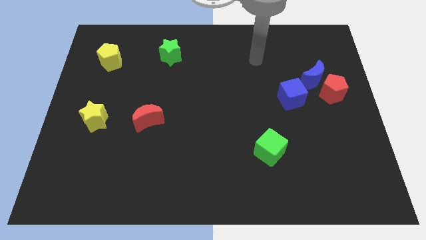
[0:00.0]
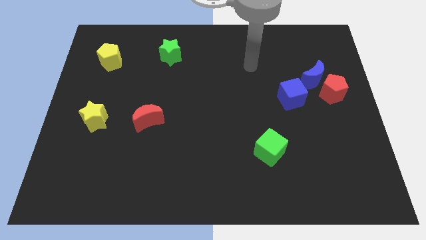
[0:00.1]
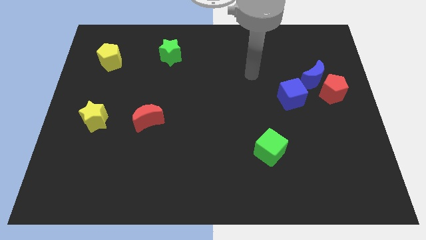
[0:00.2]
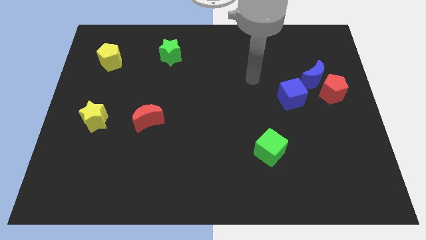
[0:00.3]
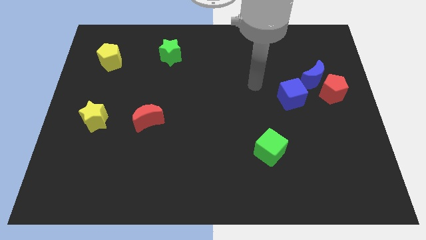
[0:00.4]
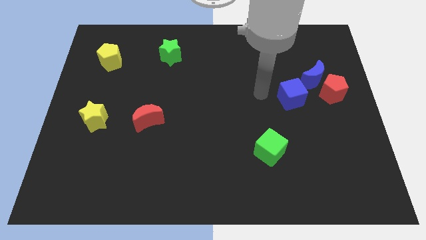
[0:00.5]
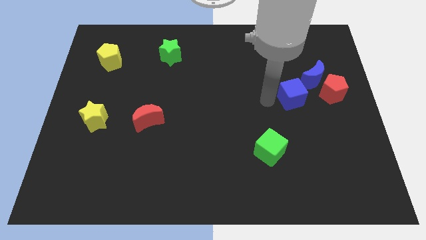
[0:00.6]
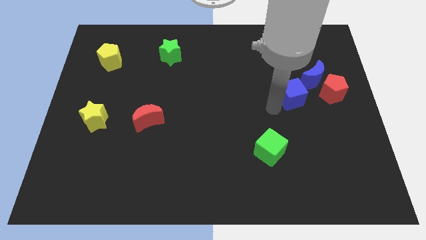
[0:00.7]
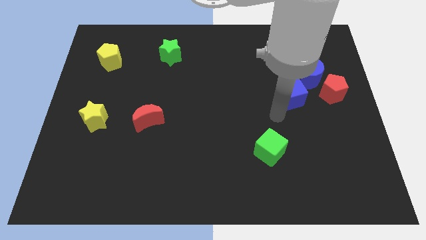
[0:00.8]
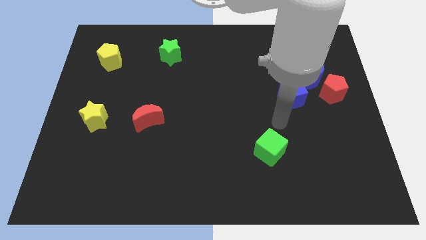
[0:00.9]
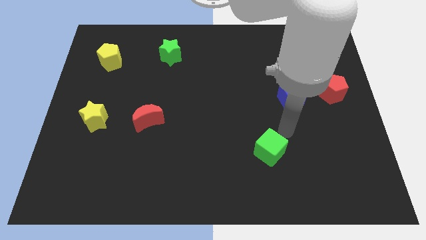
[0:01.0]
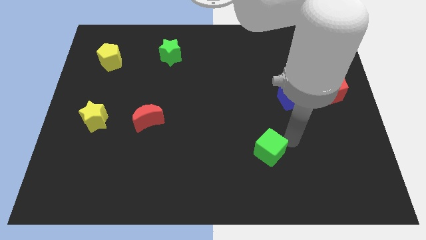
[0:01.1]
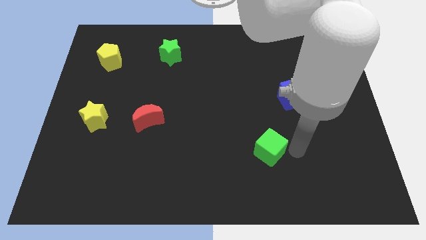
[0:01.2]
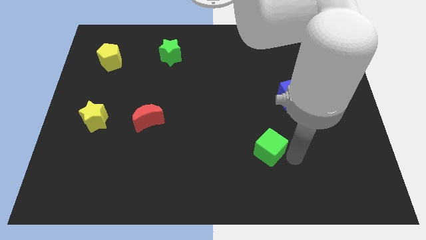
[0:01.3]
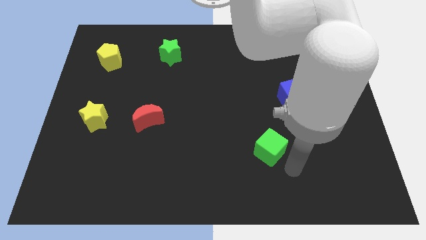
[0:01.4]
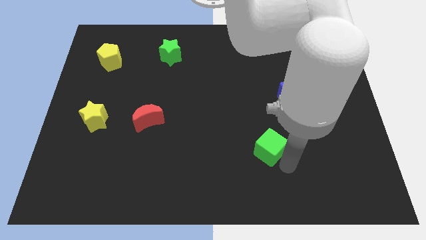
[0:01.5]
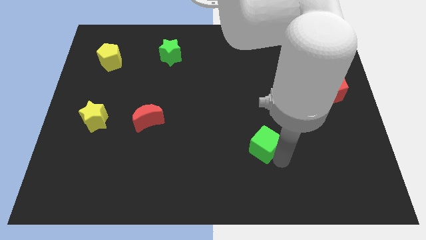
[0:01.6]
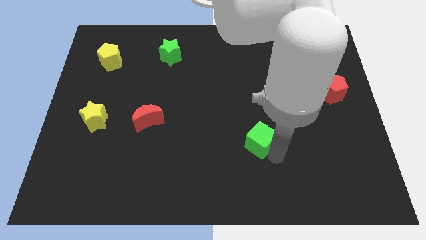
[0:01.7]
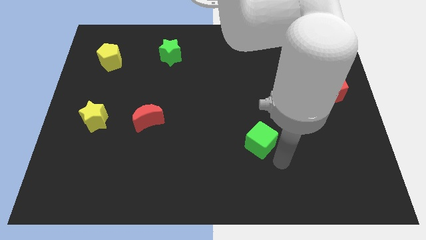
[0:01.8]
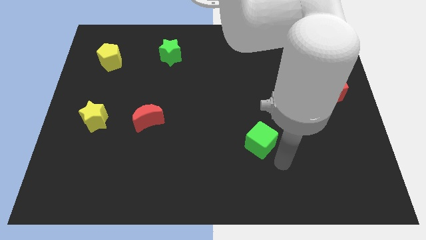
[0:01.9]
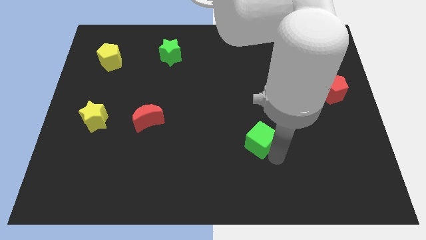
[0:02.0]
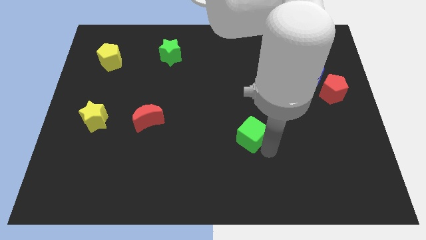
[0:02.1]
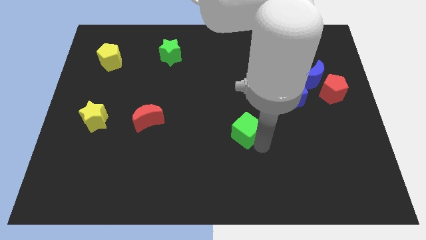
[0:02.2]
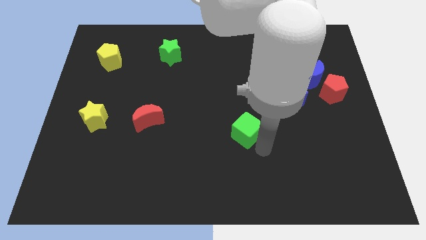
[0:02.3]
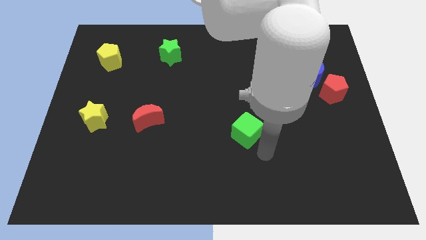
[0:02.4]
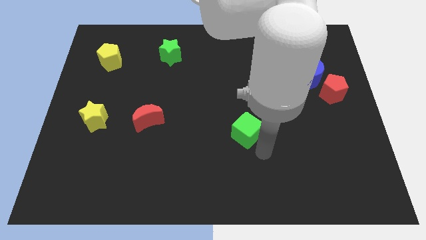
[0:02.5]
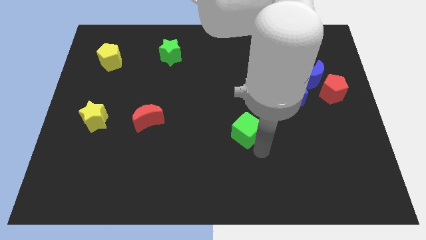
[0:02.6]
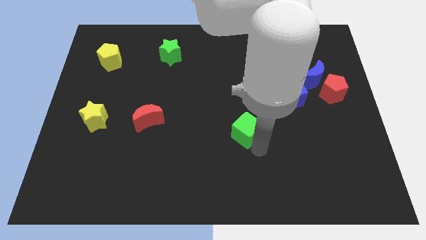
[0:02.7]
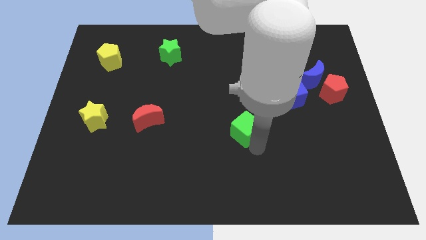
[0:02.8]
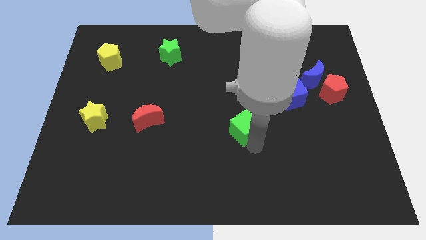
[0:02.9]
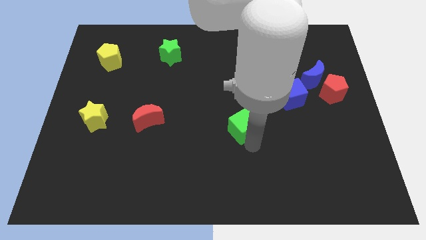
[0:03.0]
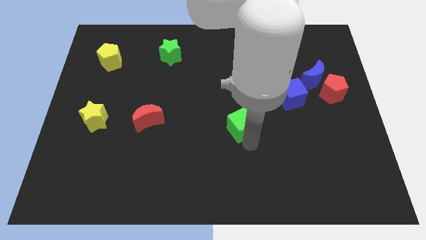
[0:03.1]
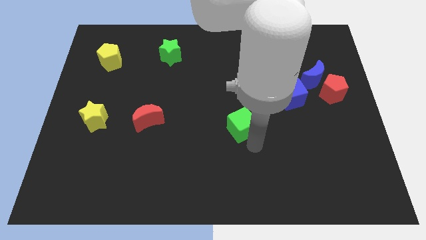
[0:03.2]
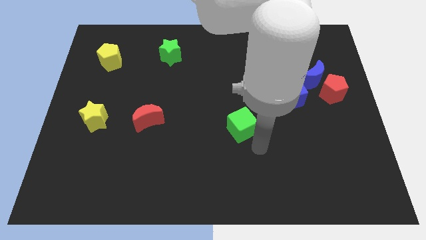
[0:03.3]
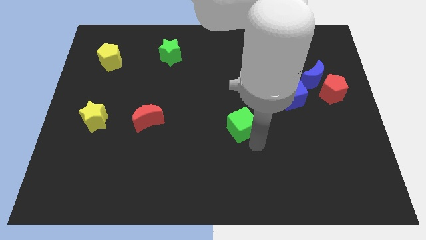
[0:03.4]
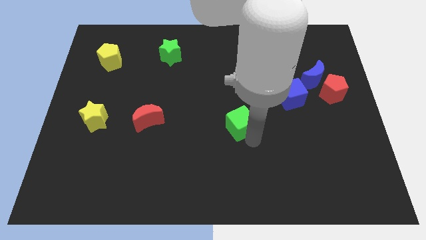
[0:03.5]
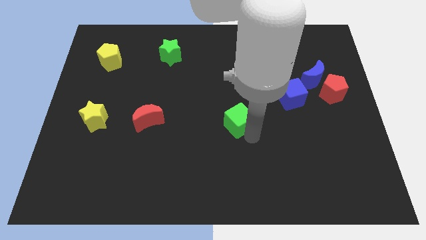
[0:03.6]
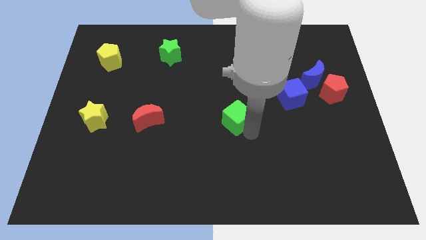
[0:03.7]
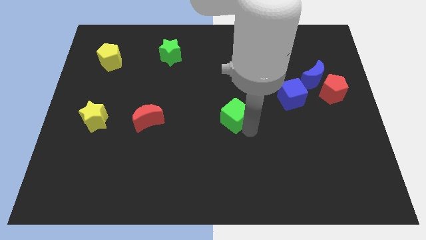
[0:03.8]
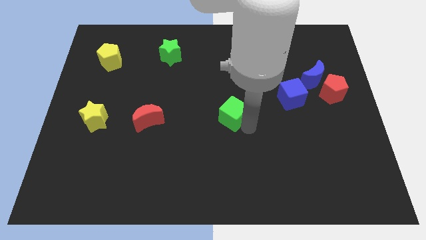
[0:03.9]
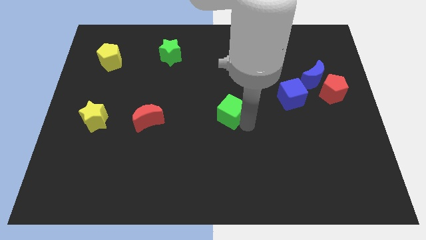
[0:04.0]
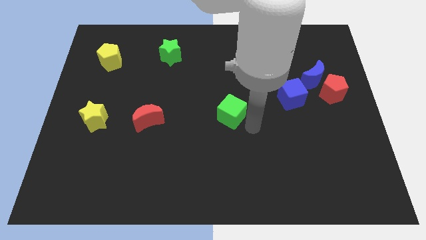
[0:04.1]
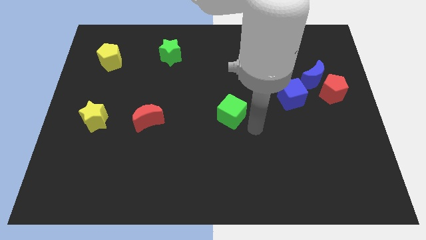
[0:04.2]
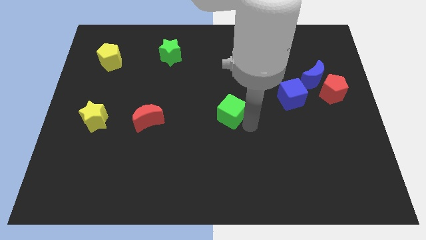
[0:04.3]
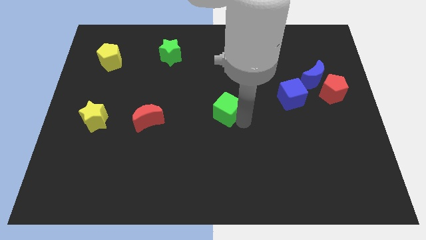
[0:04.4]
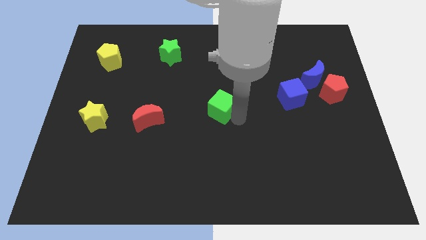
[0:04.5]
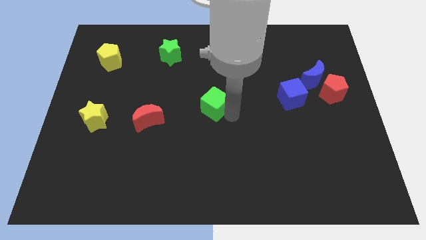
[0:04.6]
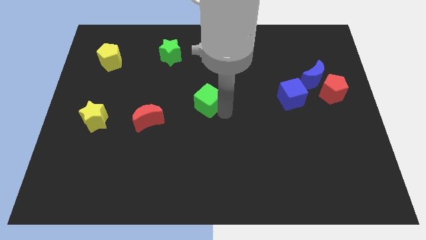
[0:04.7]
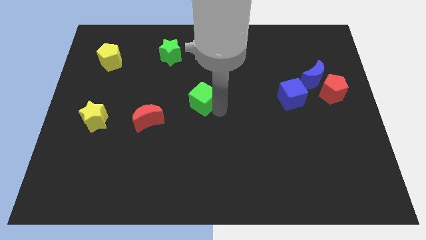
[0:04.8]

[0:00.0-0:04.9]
move the green cube up and left diagonally

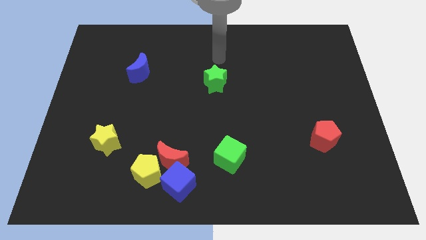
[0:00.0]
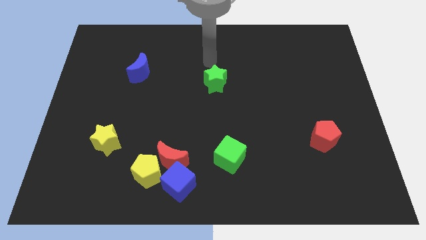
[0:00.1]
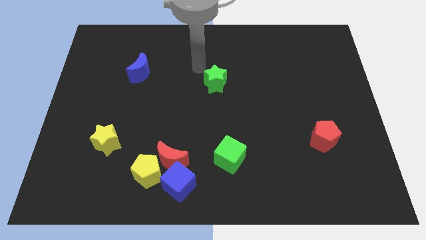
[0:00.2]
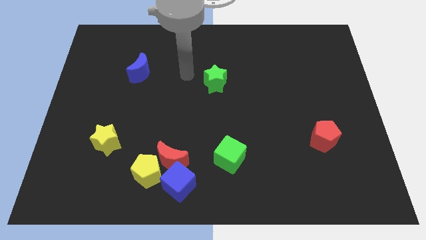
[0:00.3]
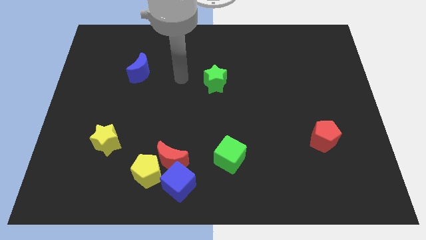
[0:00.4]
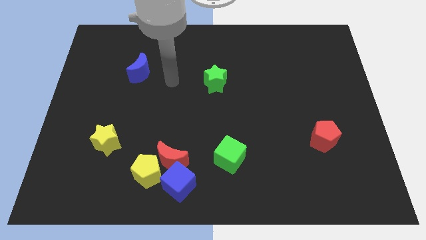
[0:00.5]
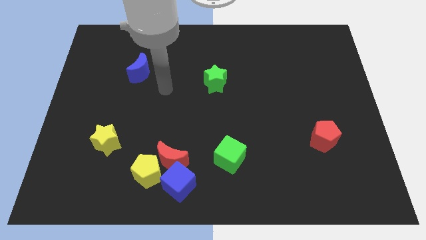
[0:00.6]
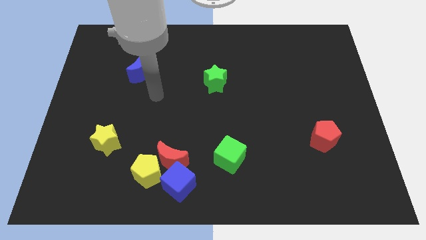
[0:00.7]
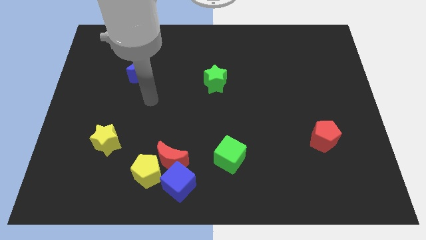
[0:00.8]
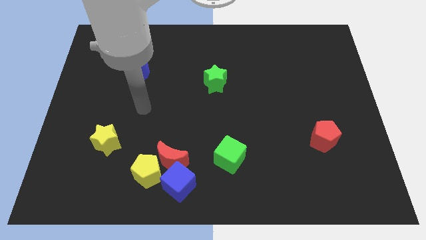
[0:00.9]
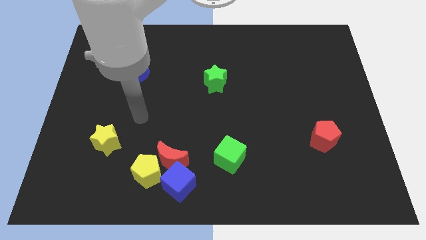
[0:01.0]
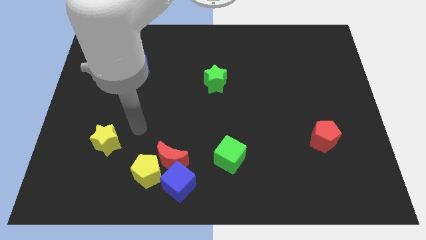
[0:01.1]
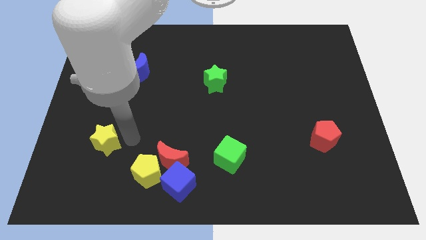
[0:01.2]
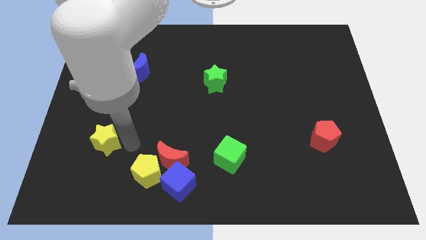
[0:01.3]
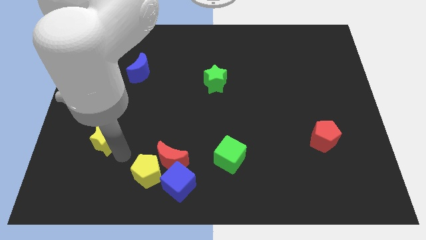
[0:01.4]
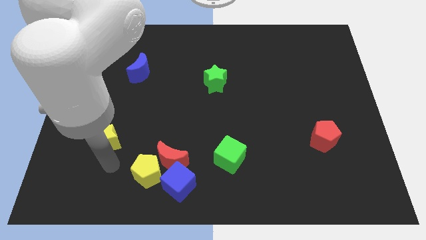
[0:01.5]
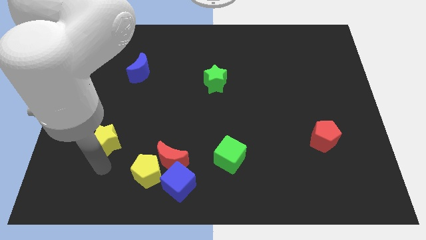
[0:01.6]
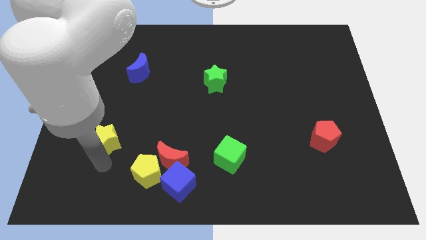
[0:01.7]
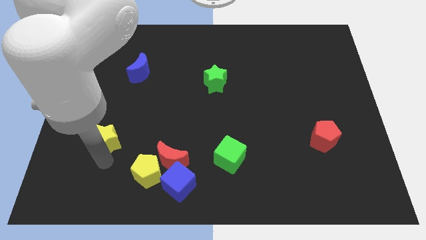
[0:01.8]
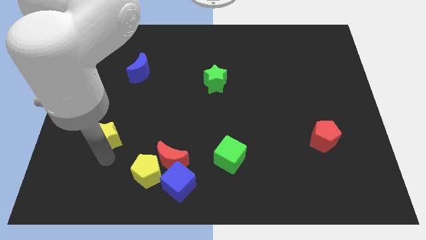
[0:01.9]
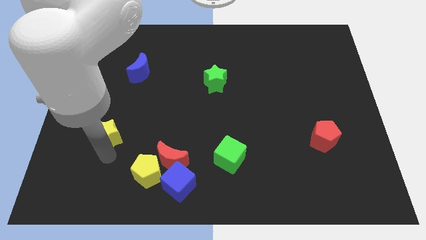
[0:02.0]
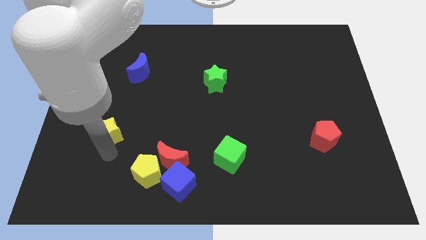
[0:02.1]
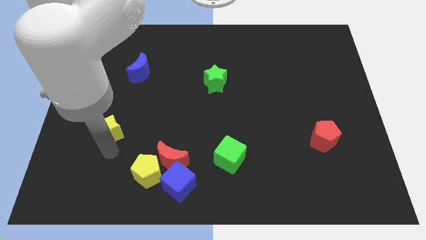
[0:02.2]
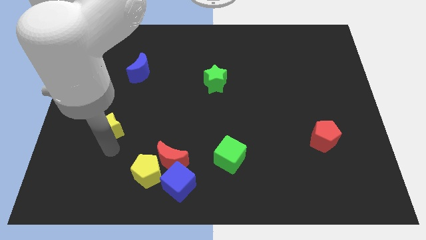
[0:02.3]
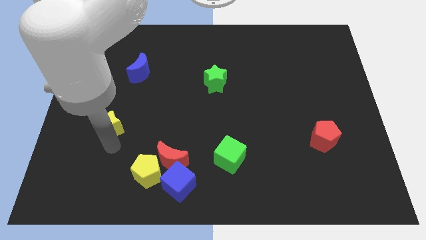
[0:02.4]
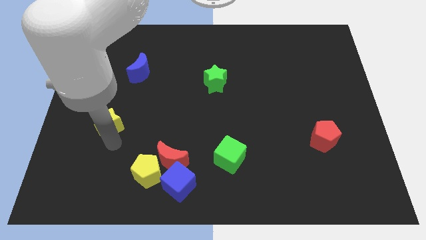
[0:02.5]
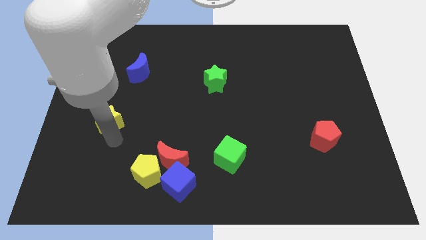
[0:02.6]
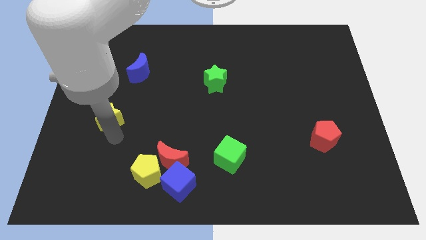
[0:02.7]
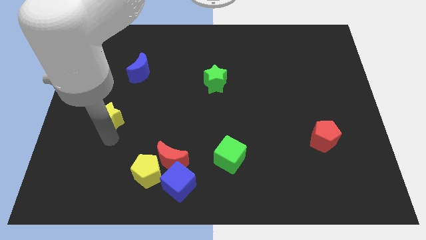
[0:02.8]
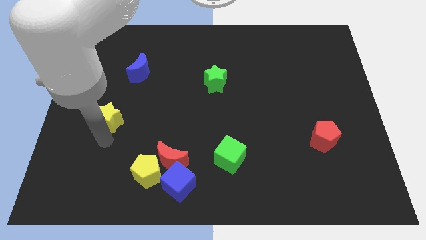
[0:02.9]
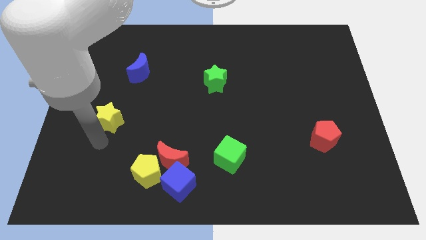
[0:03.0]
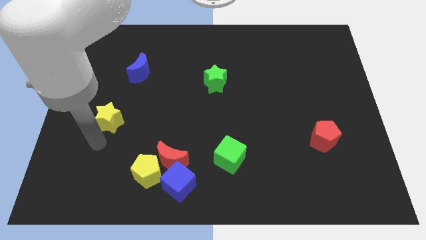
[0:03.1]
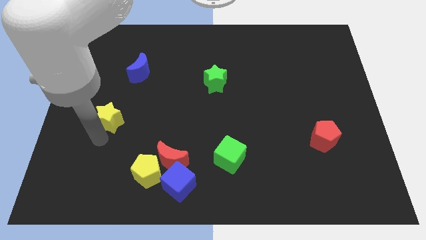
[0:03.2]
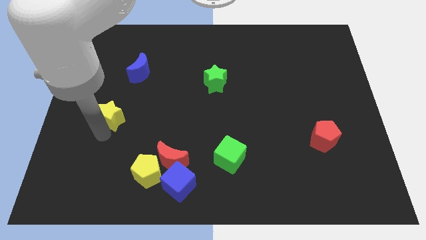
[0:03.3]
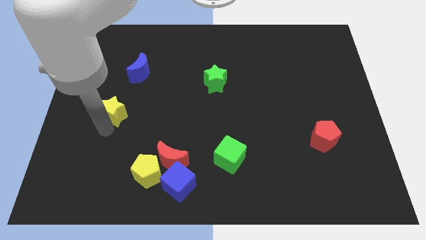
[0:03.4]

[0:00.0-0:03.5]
move the yellow star upwards a little bit
